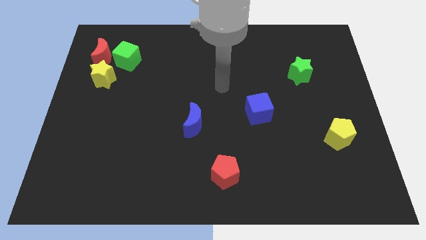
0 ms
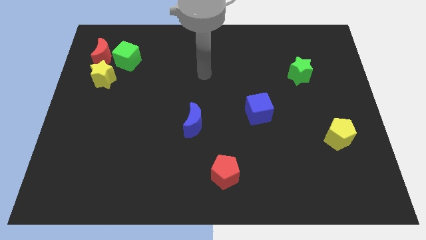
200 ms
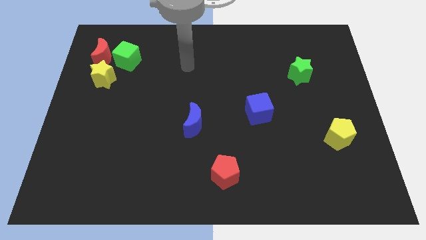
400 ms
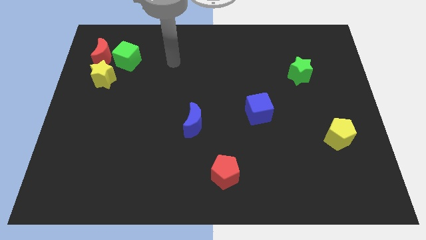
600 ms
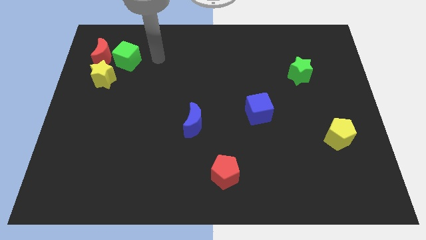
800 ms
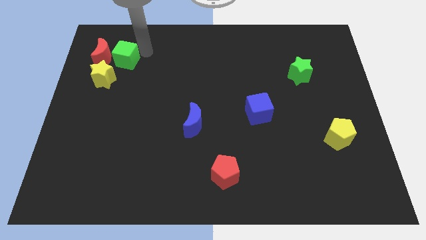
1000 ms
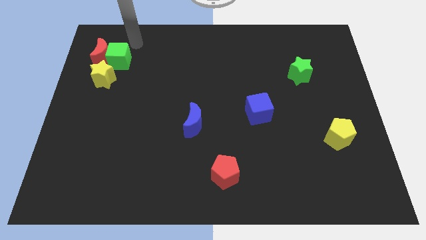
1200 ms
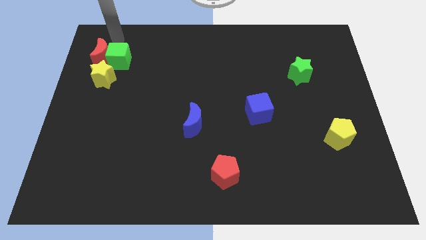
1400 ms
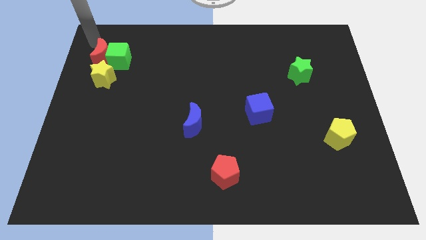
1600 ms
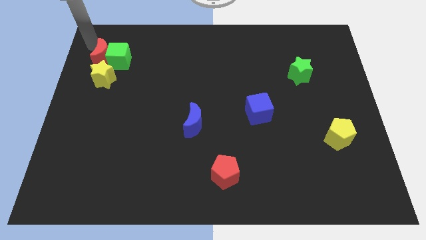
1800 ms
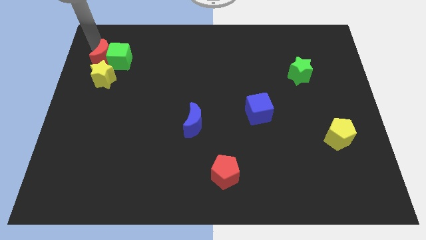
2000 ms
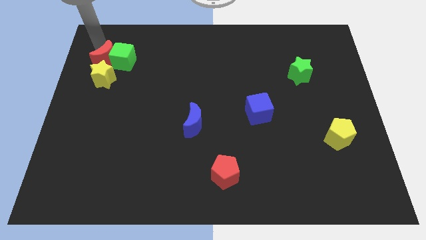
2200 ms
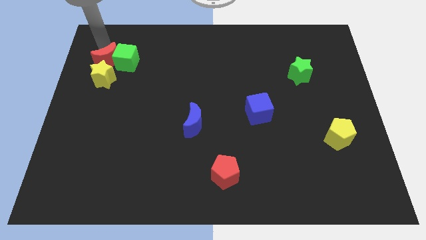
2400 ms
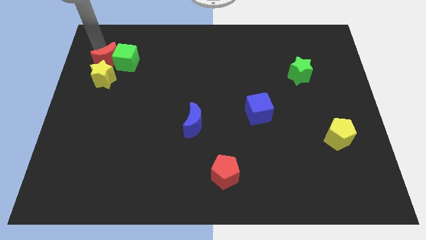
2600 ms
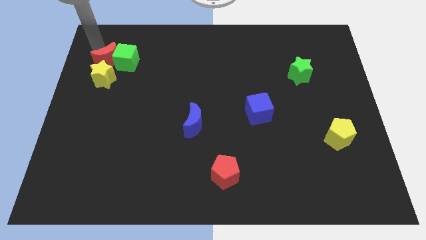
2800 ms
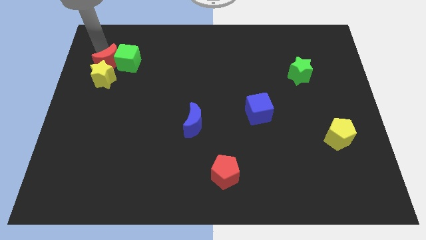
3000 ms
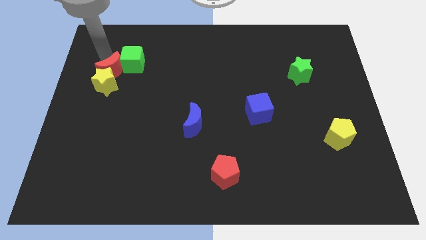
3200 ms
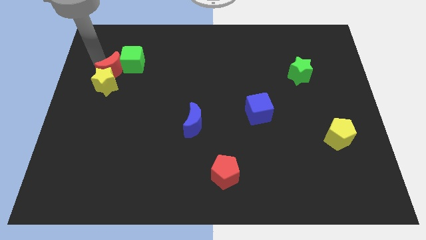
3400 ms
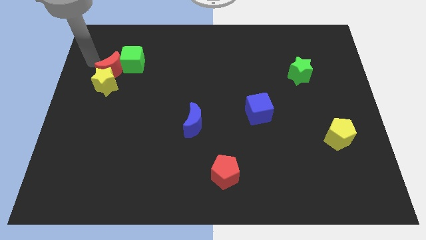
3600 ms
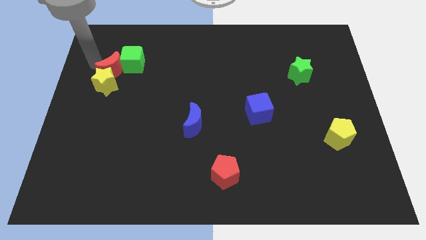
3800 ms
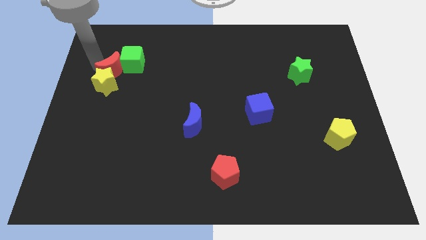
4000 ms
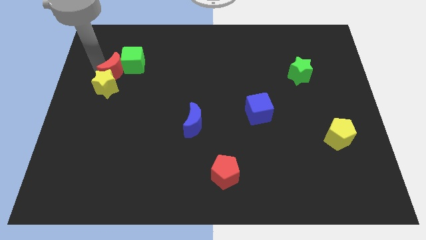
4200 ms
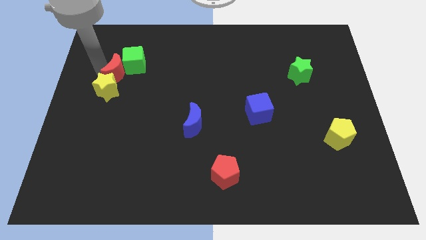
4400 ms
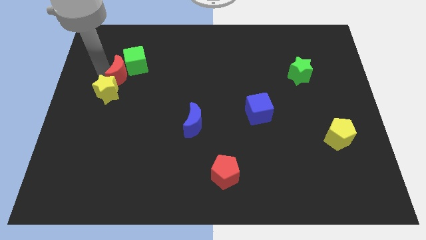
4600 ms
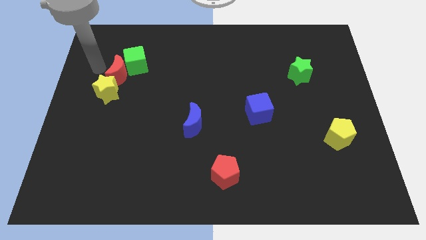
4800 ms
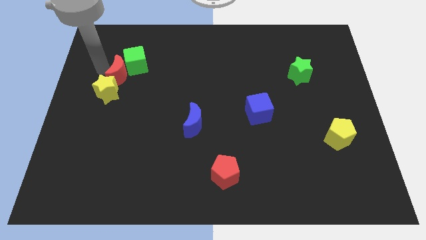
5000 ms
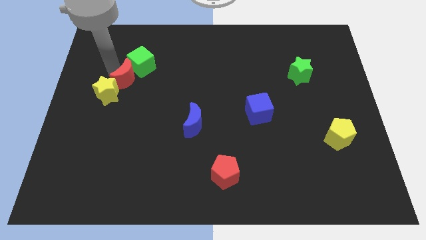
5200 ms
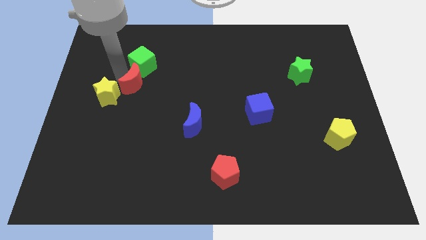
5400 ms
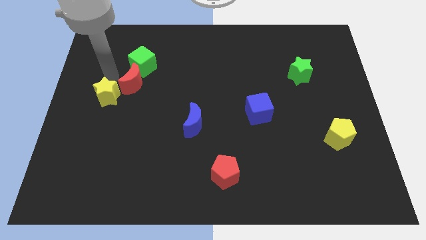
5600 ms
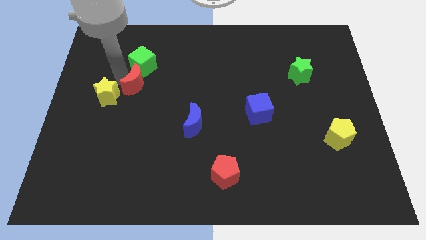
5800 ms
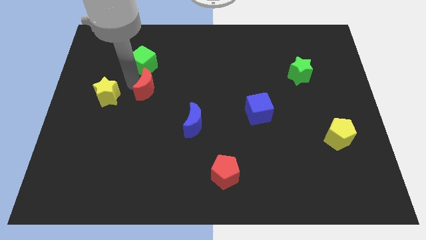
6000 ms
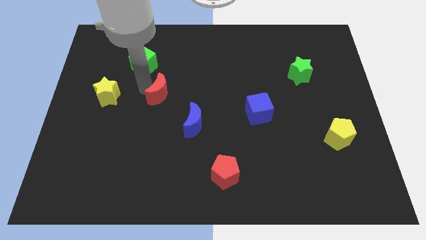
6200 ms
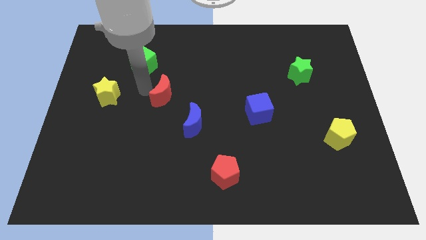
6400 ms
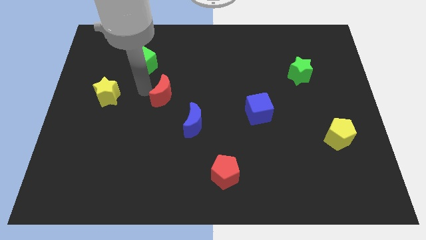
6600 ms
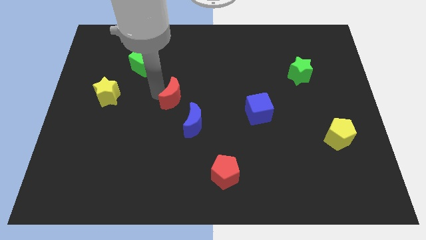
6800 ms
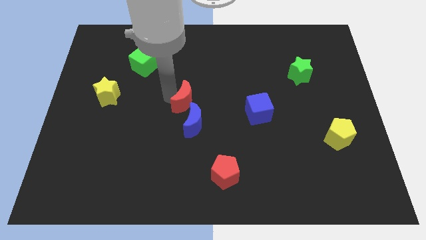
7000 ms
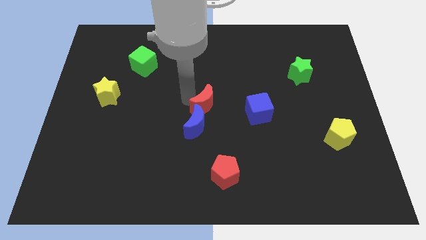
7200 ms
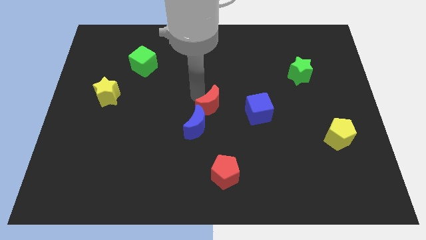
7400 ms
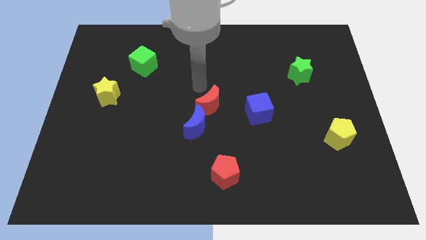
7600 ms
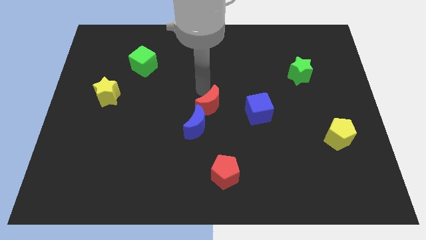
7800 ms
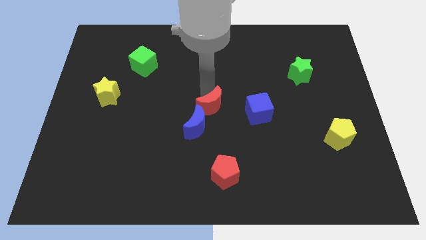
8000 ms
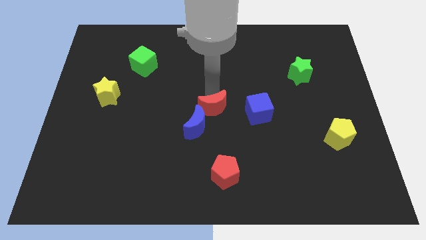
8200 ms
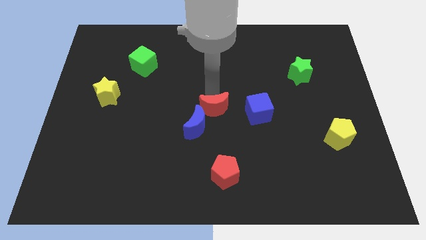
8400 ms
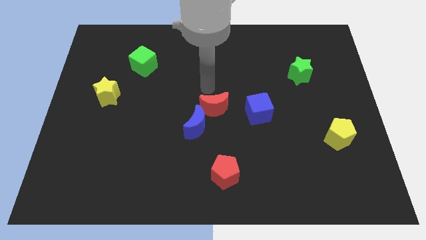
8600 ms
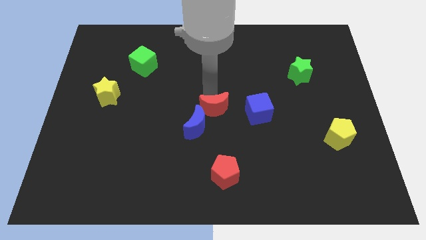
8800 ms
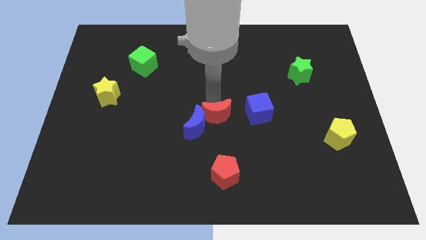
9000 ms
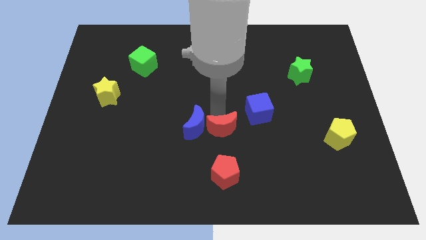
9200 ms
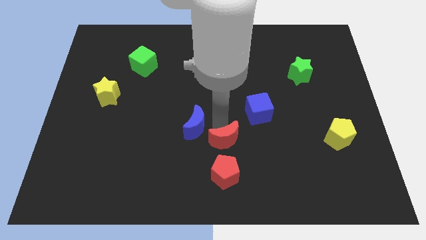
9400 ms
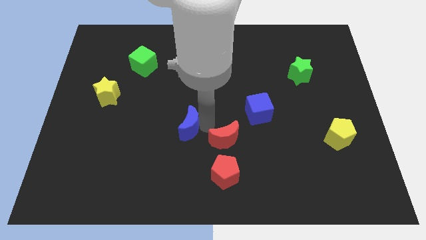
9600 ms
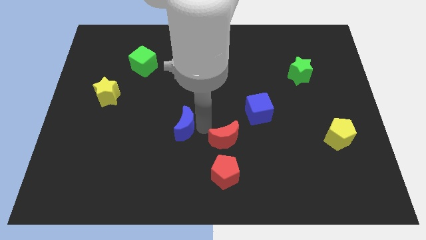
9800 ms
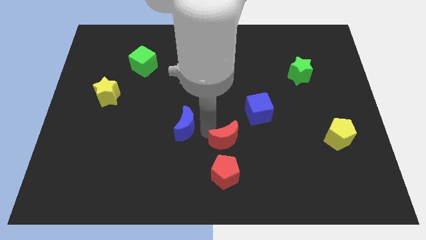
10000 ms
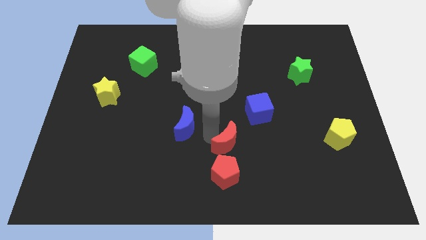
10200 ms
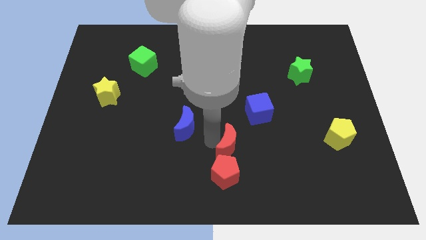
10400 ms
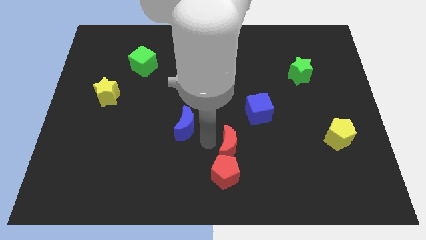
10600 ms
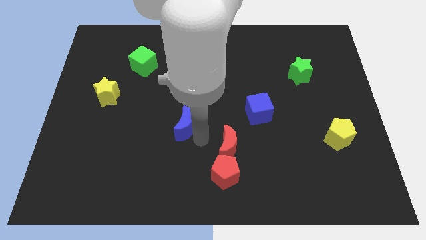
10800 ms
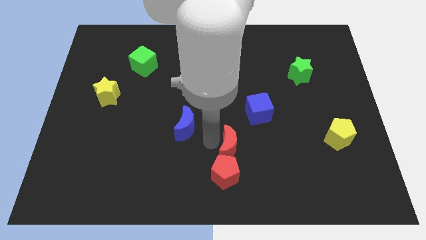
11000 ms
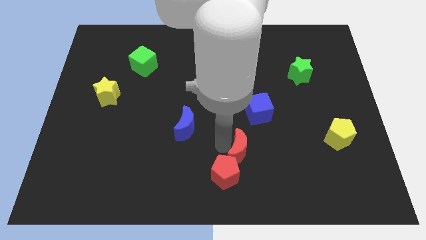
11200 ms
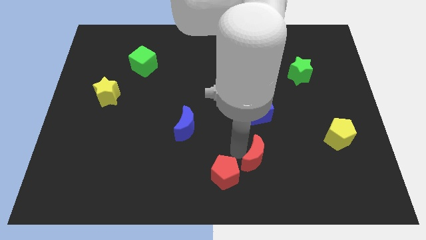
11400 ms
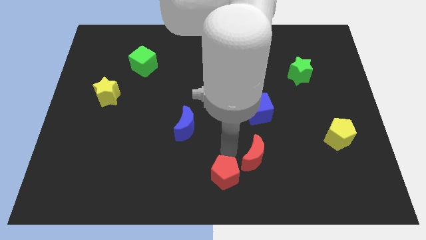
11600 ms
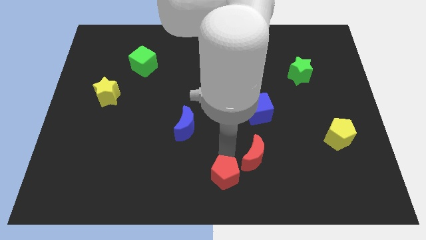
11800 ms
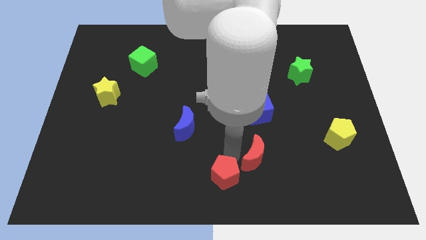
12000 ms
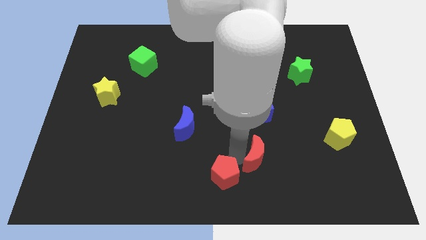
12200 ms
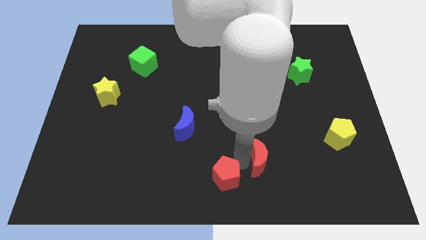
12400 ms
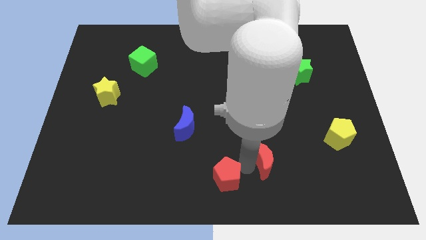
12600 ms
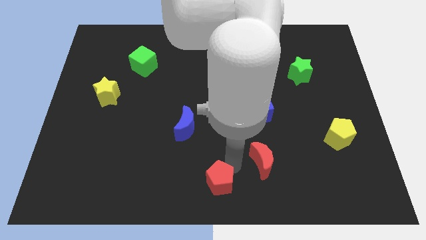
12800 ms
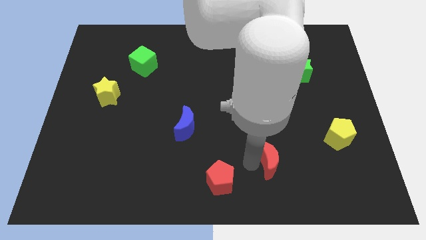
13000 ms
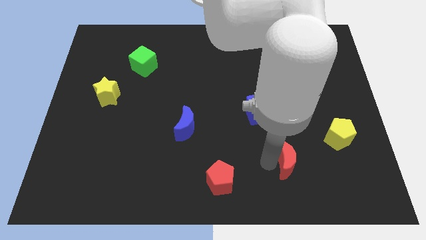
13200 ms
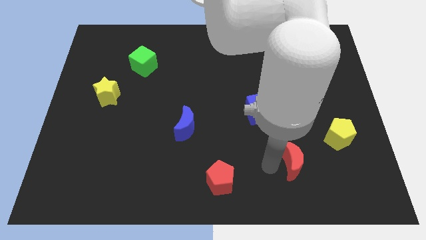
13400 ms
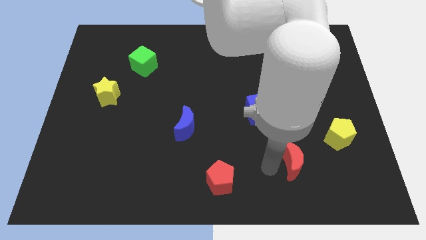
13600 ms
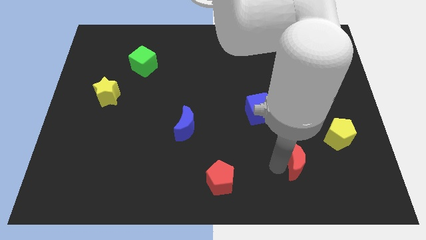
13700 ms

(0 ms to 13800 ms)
push the red moon diagonally down and to the left of the yellow pentagon
